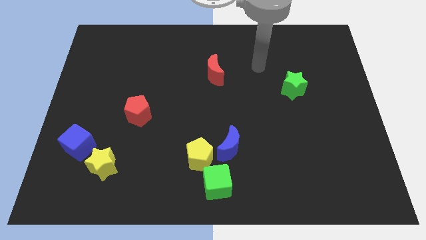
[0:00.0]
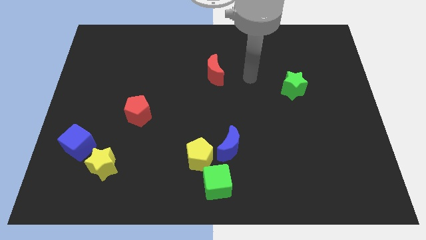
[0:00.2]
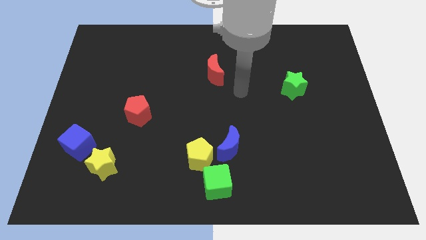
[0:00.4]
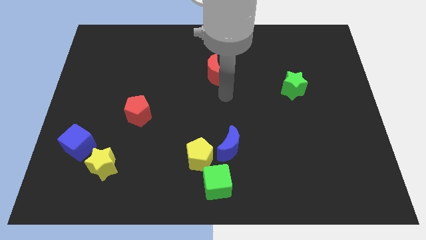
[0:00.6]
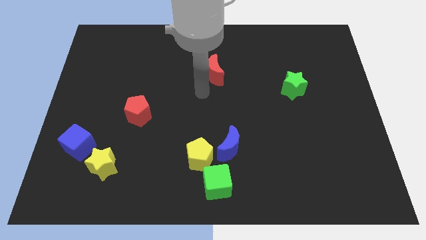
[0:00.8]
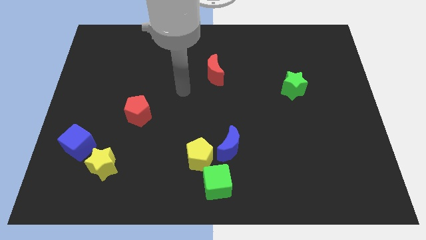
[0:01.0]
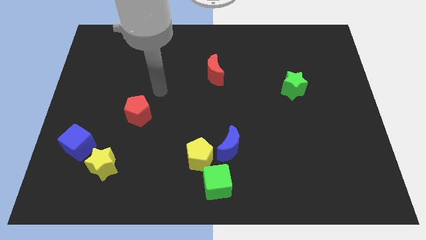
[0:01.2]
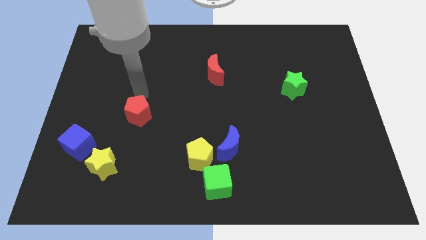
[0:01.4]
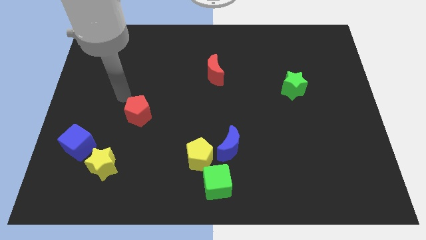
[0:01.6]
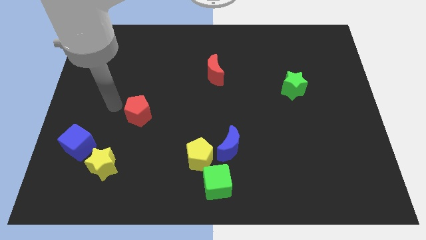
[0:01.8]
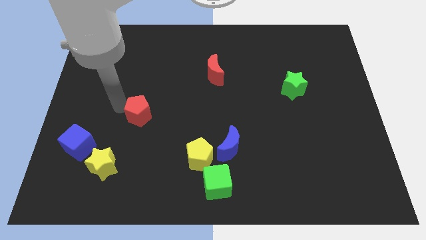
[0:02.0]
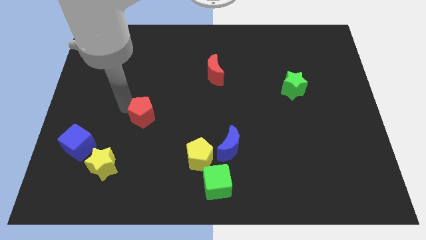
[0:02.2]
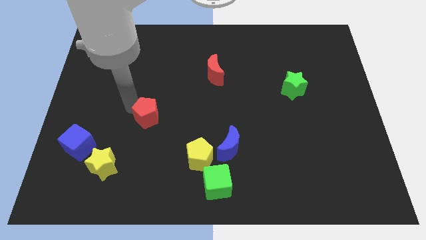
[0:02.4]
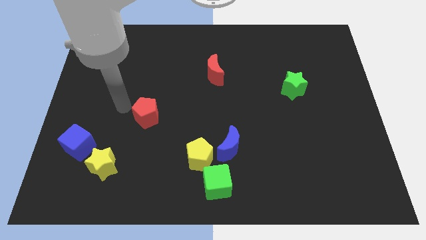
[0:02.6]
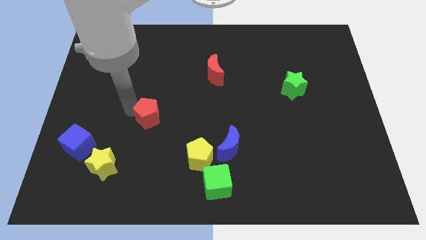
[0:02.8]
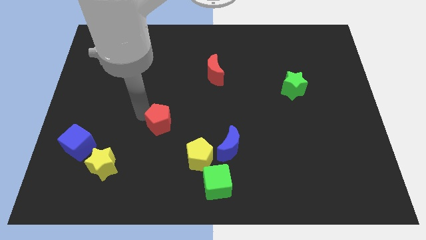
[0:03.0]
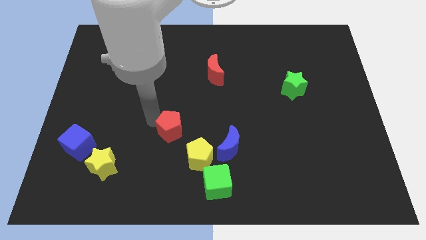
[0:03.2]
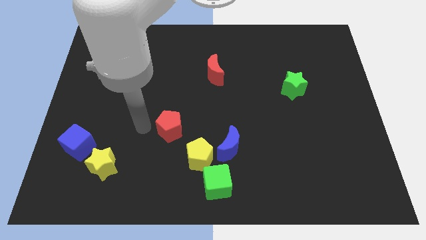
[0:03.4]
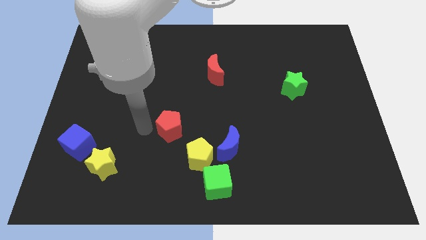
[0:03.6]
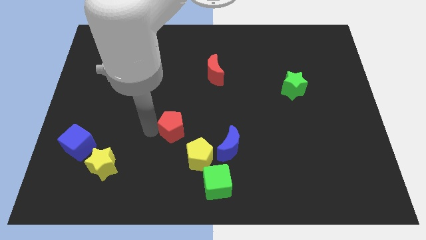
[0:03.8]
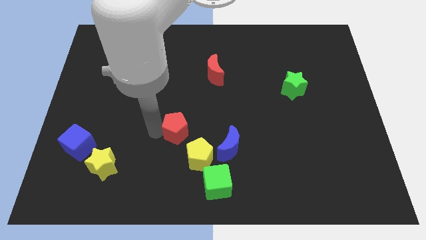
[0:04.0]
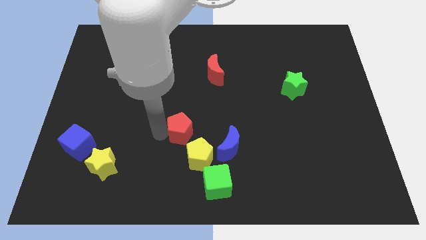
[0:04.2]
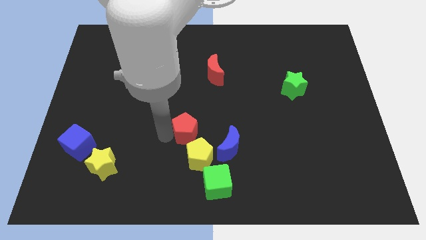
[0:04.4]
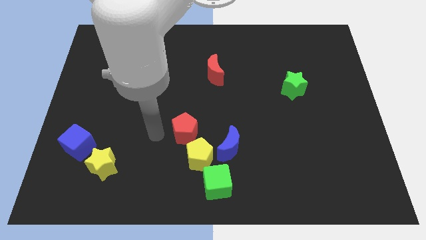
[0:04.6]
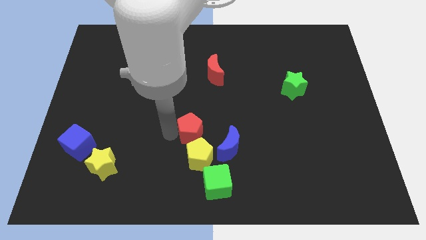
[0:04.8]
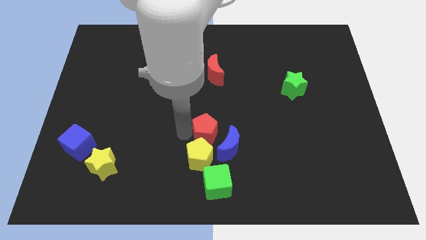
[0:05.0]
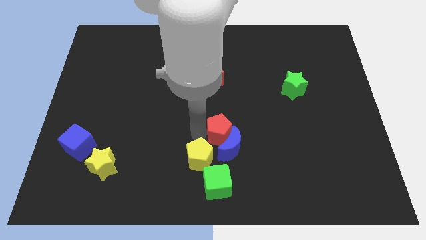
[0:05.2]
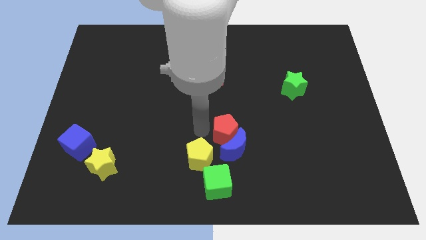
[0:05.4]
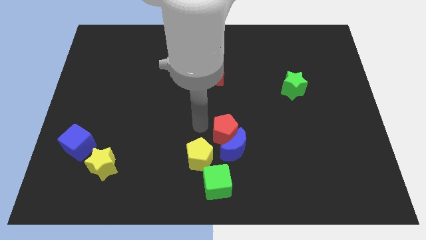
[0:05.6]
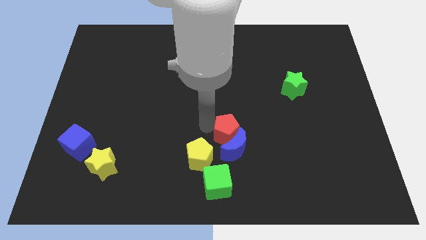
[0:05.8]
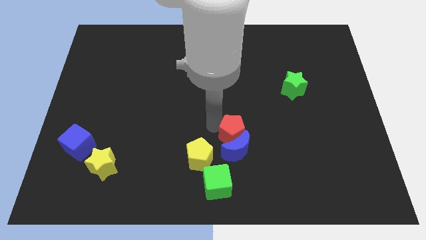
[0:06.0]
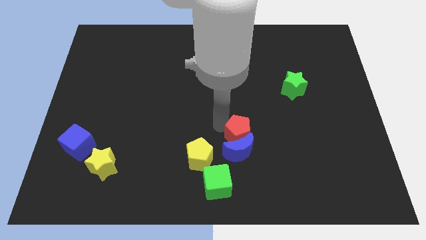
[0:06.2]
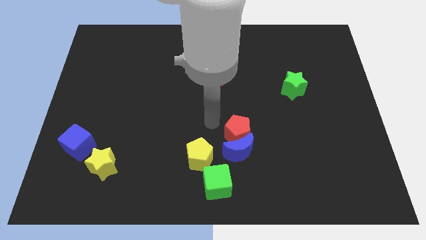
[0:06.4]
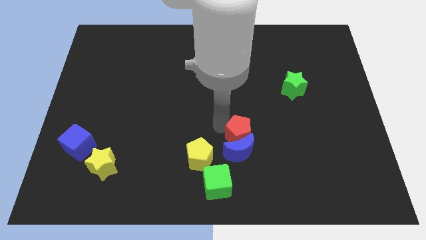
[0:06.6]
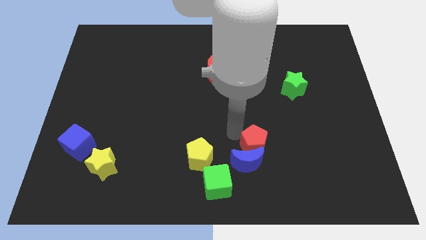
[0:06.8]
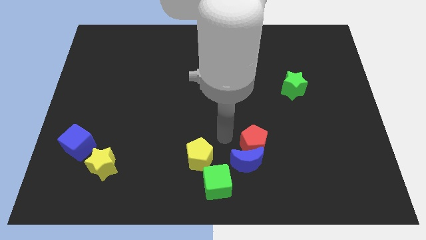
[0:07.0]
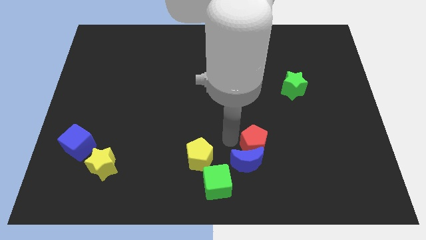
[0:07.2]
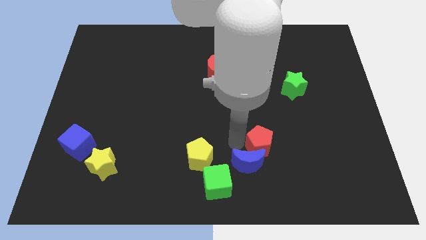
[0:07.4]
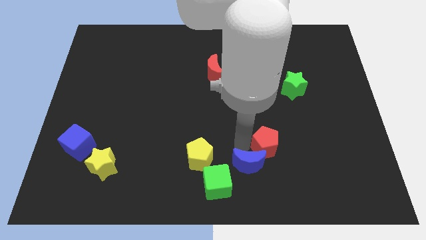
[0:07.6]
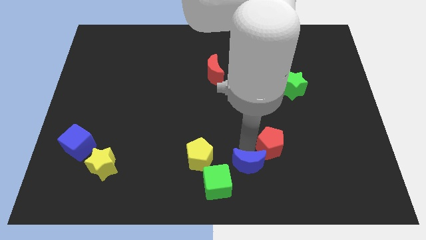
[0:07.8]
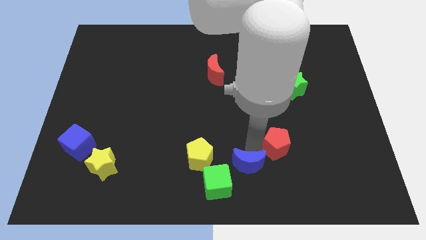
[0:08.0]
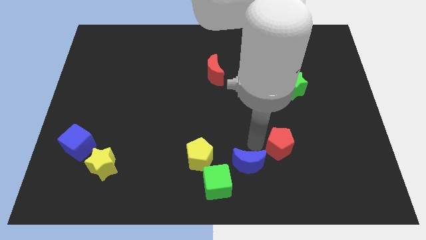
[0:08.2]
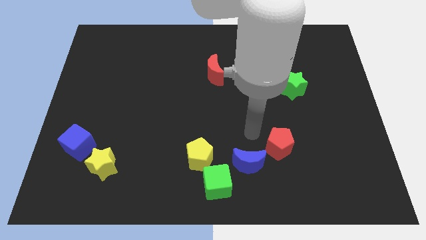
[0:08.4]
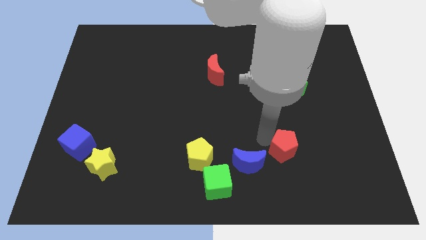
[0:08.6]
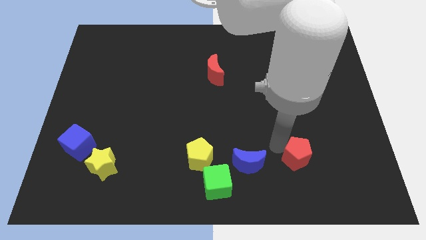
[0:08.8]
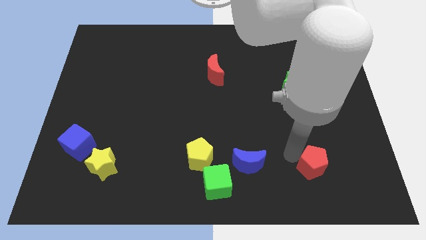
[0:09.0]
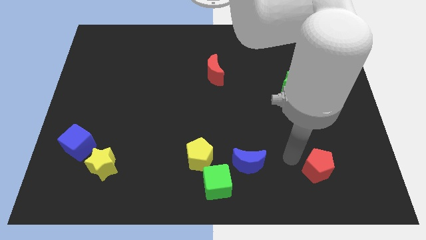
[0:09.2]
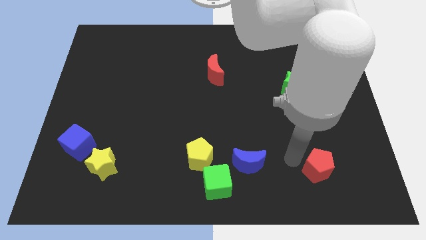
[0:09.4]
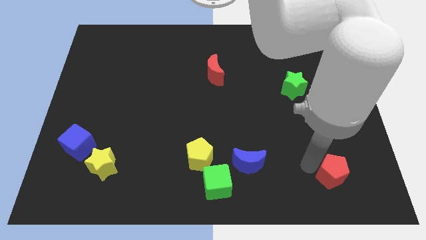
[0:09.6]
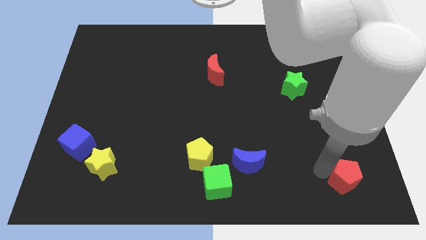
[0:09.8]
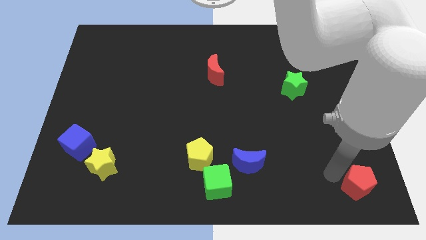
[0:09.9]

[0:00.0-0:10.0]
move the red pentagon to the bottom right of the board

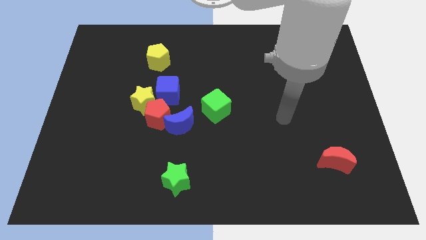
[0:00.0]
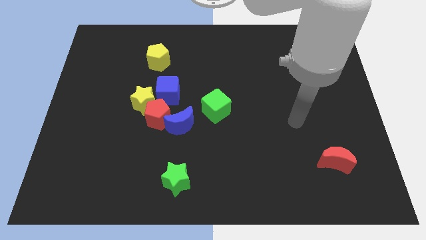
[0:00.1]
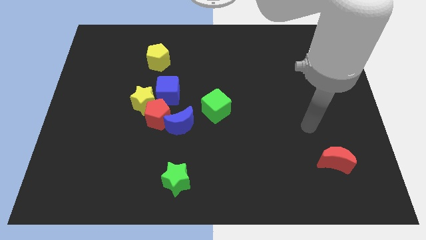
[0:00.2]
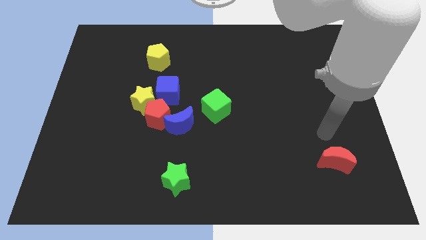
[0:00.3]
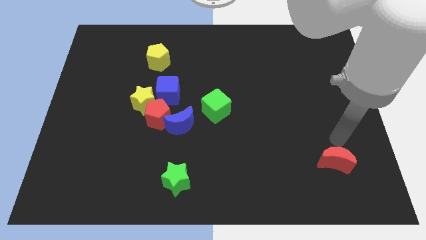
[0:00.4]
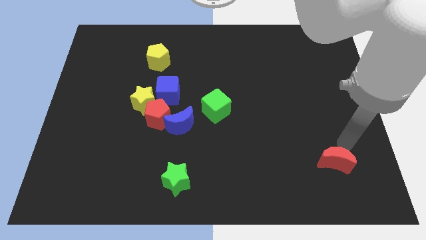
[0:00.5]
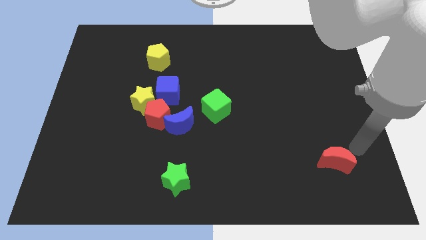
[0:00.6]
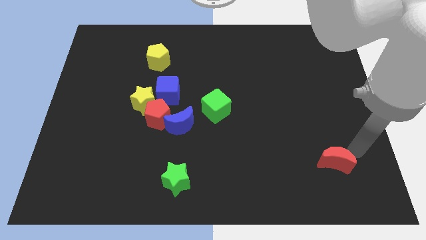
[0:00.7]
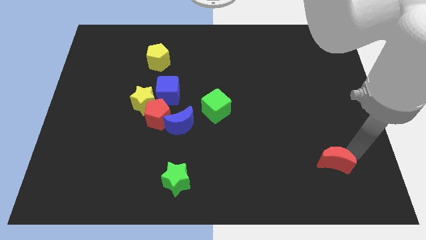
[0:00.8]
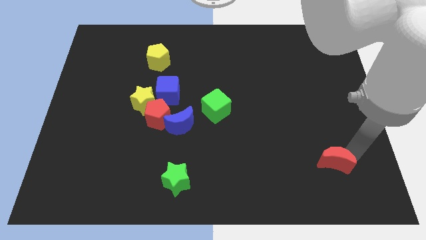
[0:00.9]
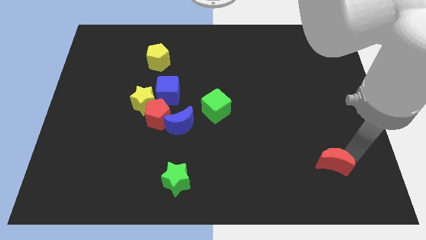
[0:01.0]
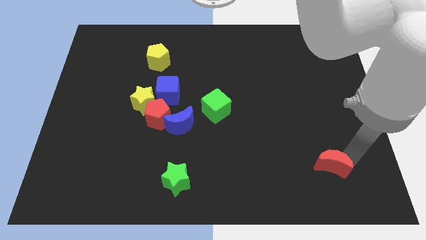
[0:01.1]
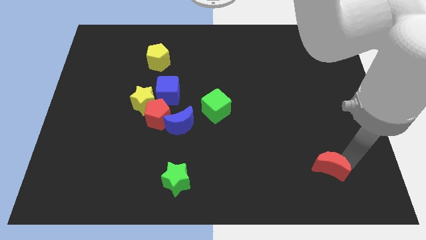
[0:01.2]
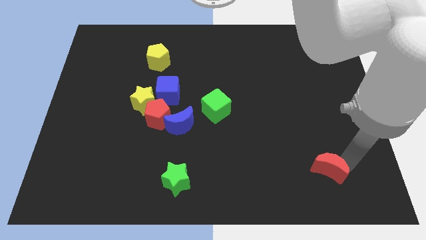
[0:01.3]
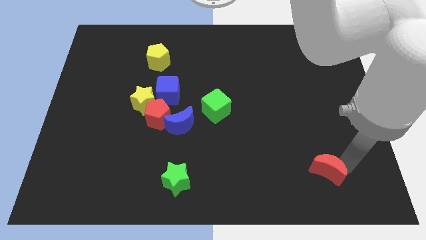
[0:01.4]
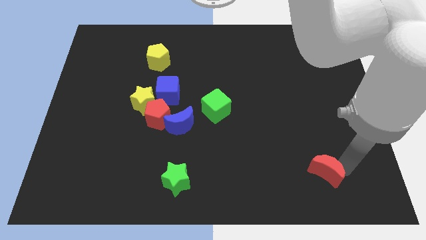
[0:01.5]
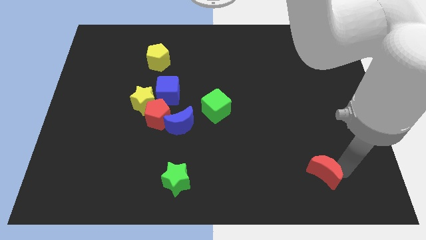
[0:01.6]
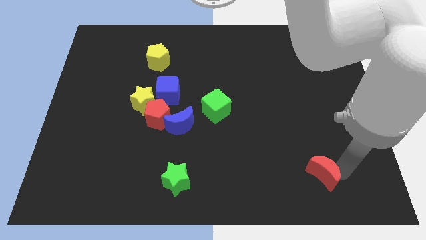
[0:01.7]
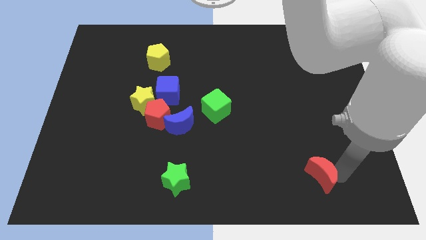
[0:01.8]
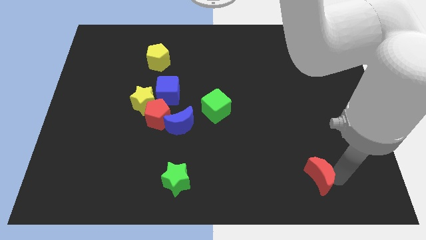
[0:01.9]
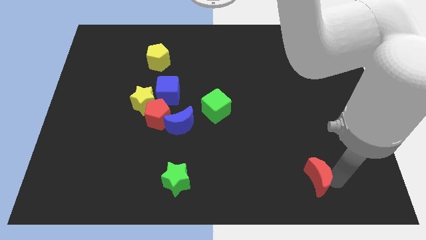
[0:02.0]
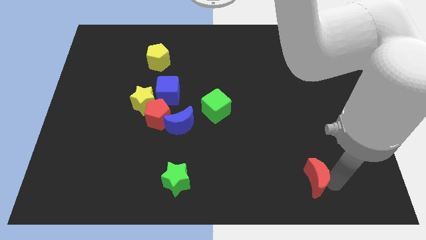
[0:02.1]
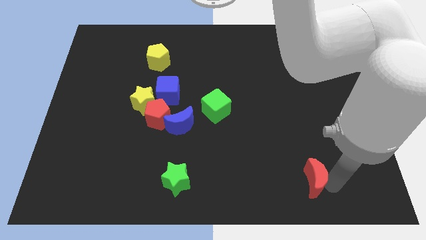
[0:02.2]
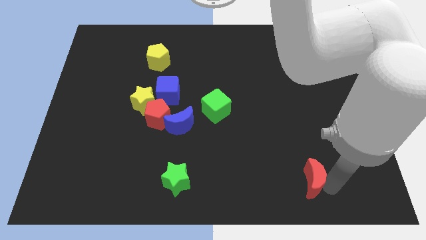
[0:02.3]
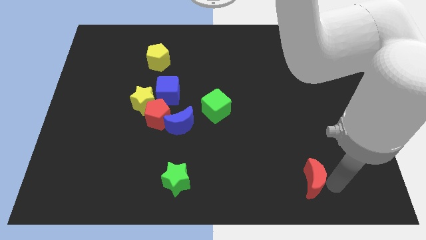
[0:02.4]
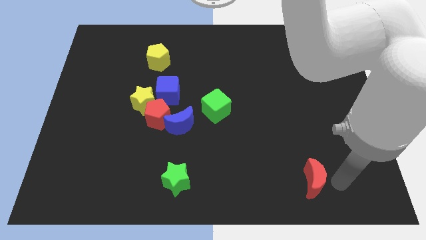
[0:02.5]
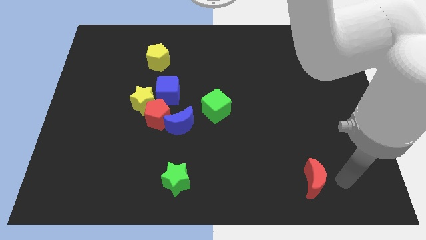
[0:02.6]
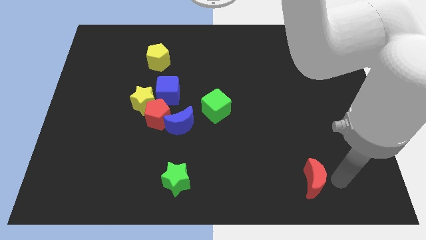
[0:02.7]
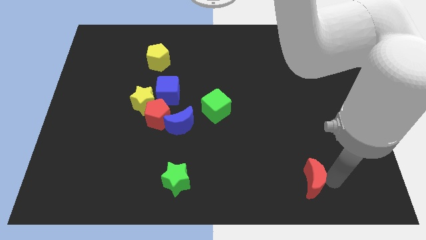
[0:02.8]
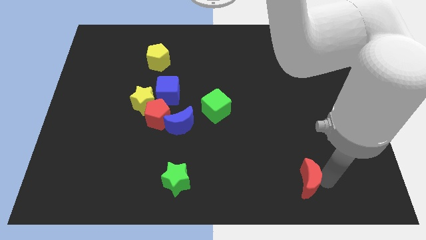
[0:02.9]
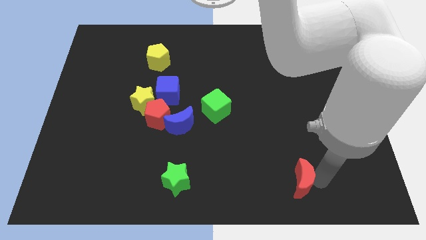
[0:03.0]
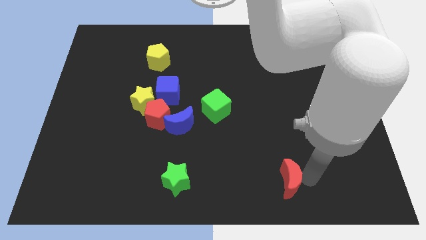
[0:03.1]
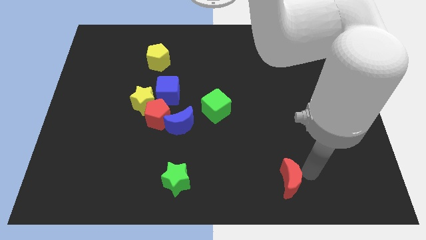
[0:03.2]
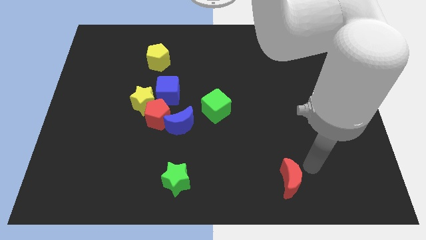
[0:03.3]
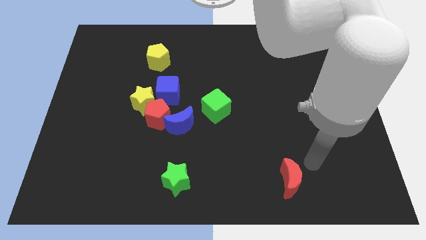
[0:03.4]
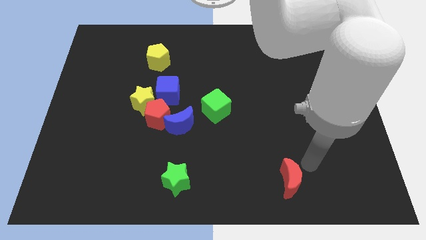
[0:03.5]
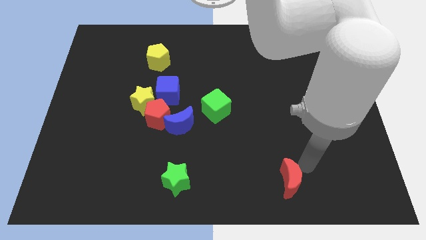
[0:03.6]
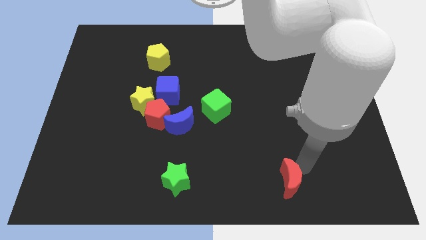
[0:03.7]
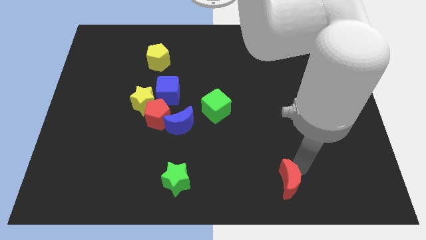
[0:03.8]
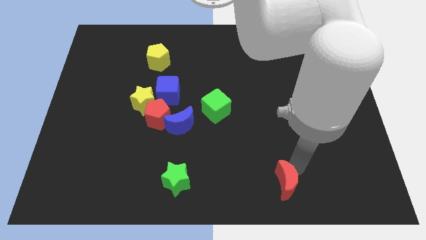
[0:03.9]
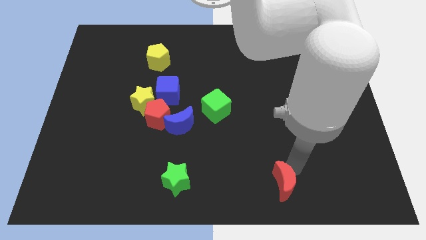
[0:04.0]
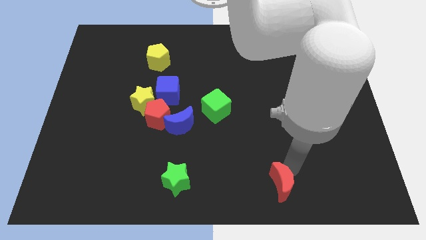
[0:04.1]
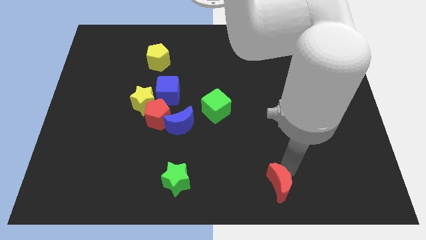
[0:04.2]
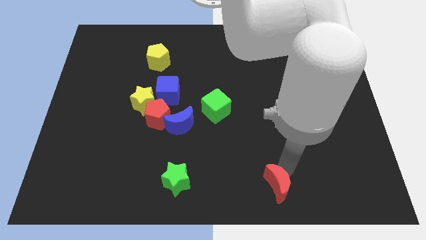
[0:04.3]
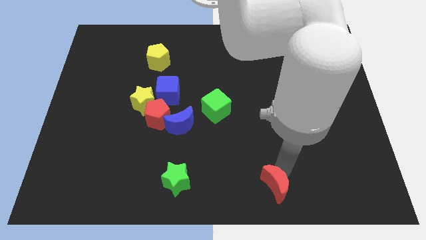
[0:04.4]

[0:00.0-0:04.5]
move the red moon to the bottom
